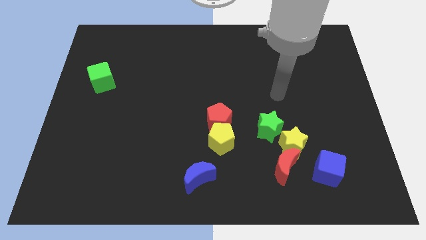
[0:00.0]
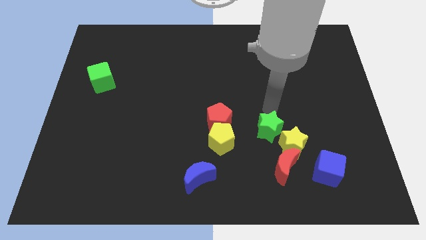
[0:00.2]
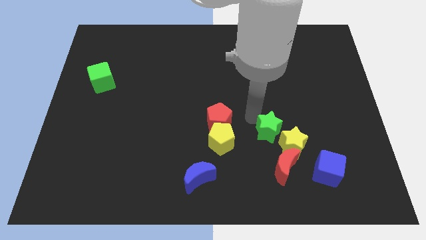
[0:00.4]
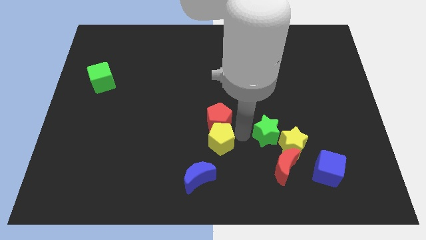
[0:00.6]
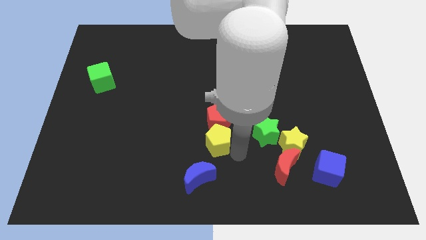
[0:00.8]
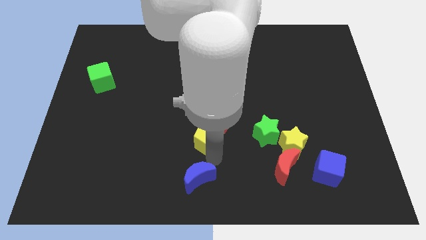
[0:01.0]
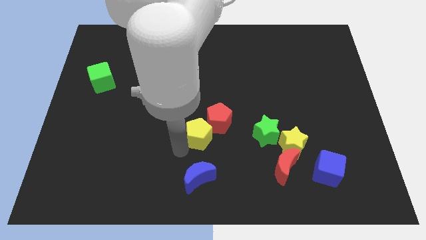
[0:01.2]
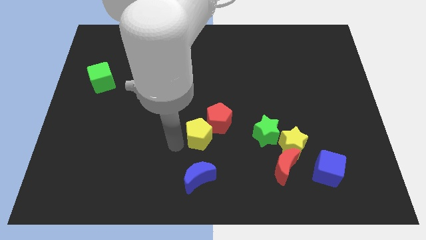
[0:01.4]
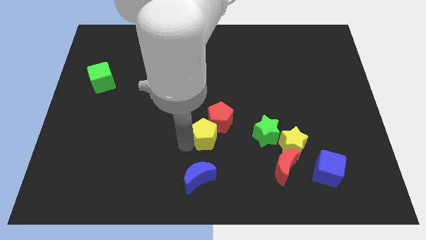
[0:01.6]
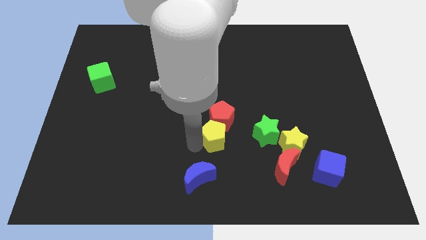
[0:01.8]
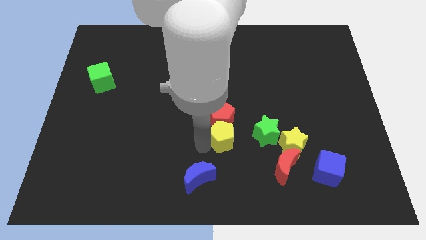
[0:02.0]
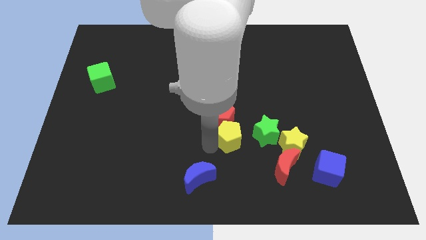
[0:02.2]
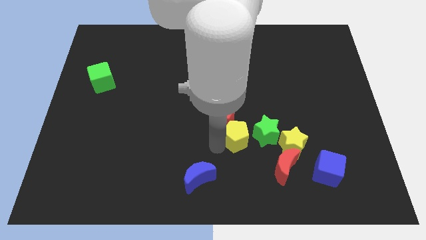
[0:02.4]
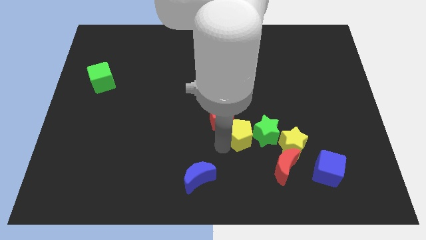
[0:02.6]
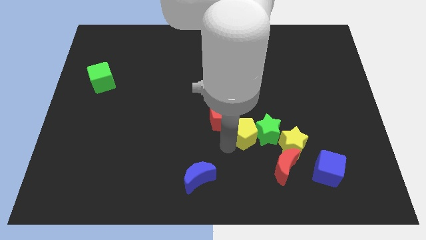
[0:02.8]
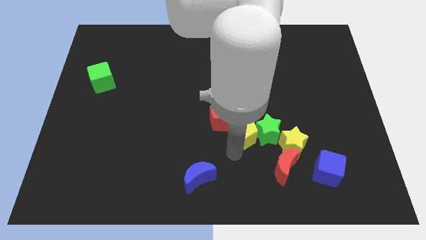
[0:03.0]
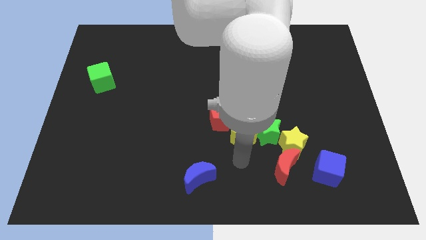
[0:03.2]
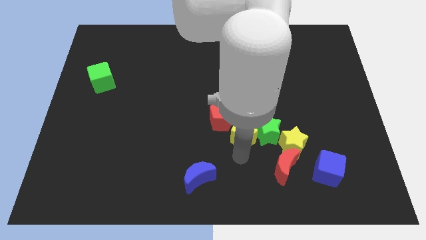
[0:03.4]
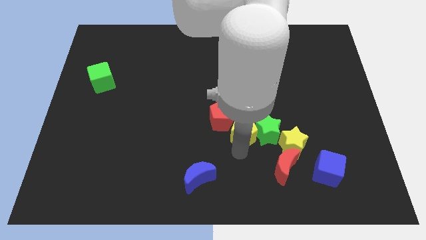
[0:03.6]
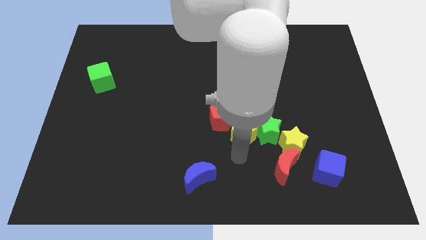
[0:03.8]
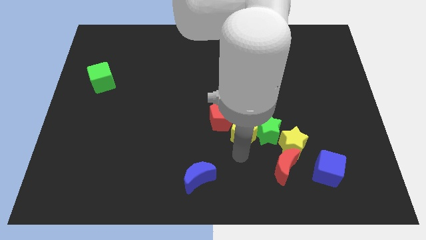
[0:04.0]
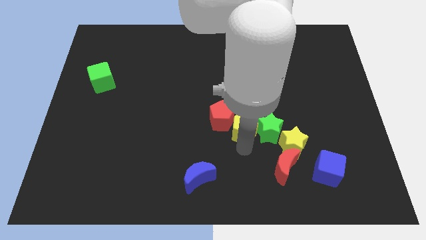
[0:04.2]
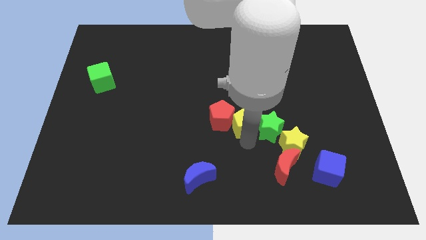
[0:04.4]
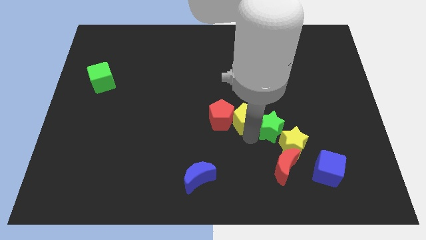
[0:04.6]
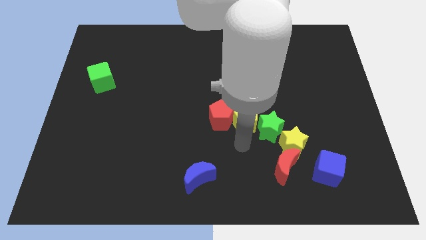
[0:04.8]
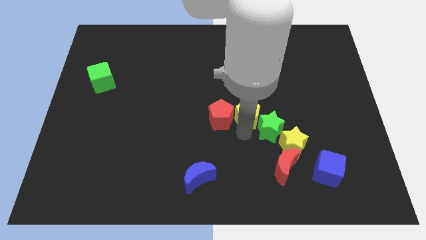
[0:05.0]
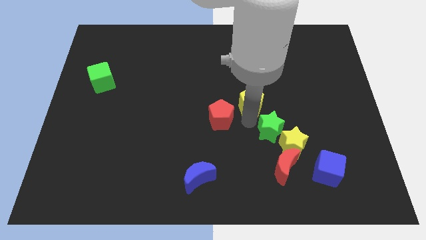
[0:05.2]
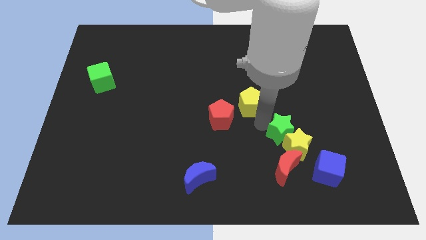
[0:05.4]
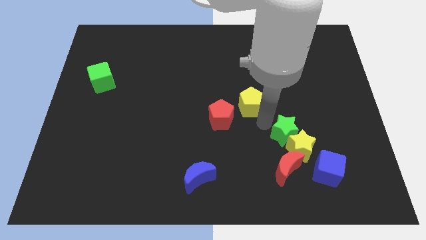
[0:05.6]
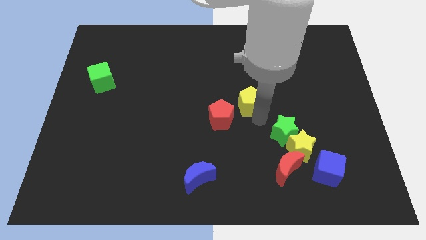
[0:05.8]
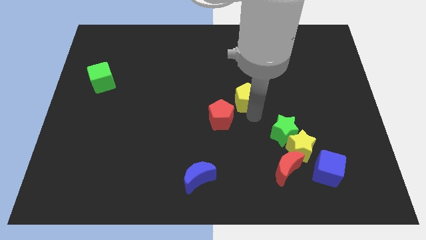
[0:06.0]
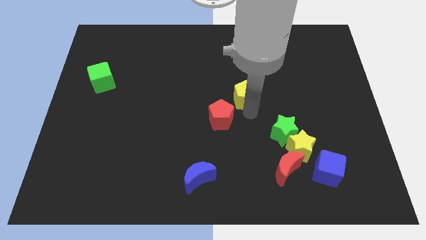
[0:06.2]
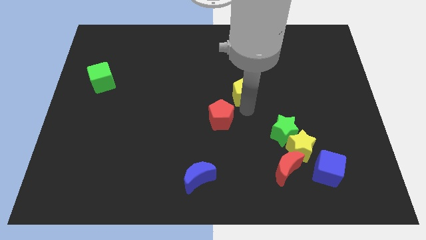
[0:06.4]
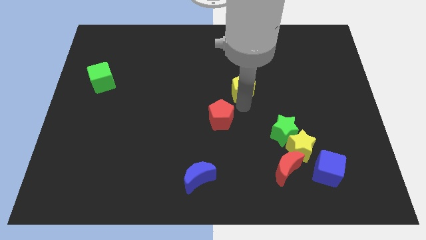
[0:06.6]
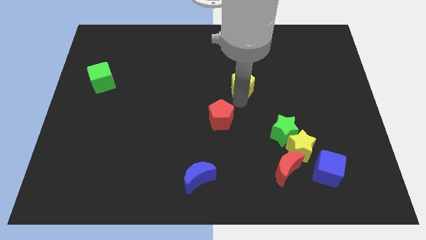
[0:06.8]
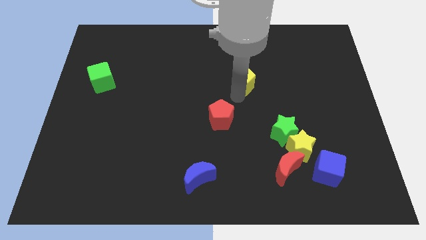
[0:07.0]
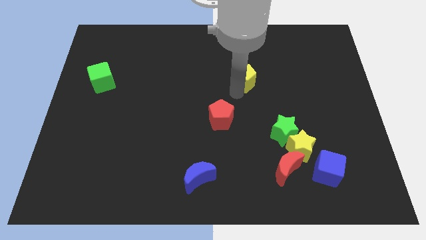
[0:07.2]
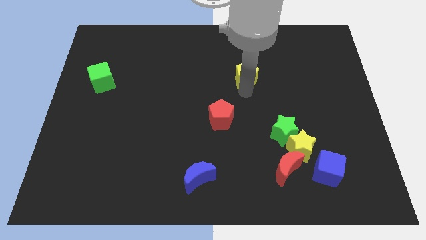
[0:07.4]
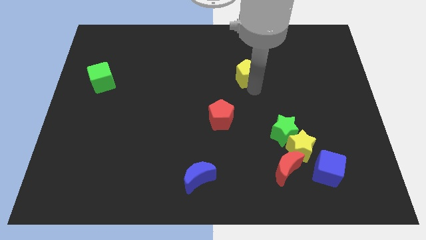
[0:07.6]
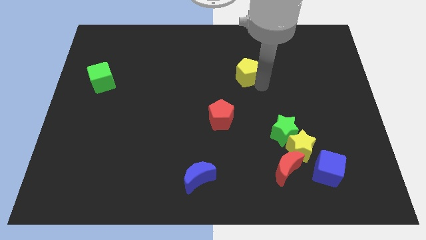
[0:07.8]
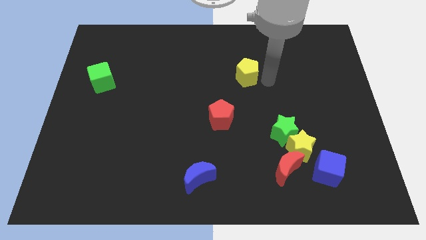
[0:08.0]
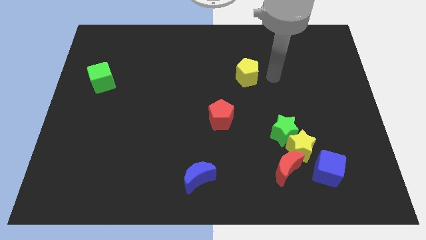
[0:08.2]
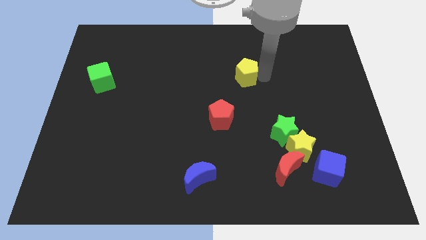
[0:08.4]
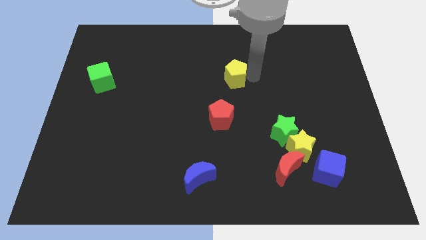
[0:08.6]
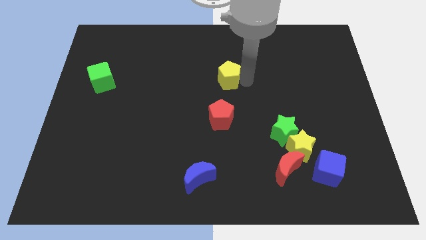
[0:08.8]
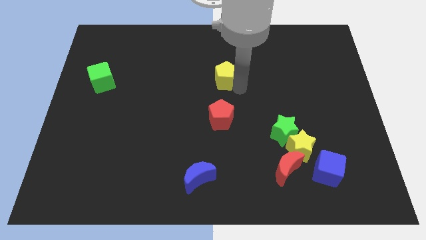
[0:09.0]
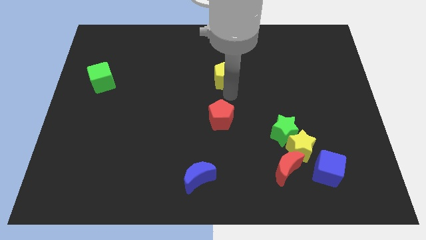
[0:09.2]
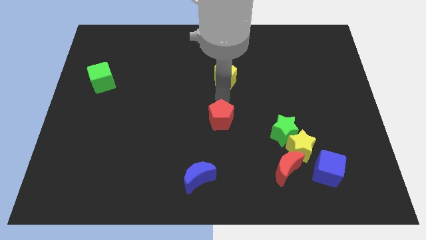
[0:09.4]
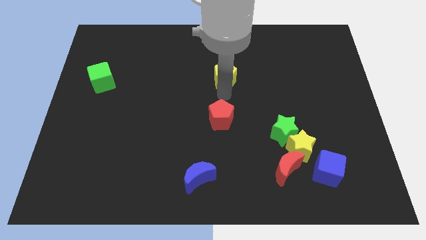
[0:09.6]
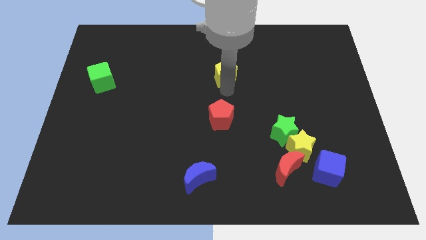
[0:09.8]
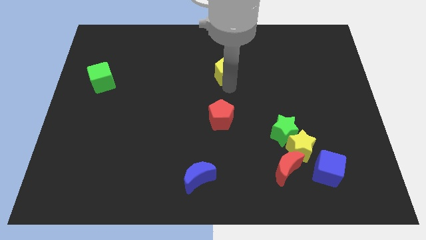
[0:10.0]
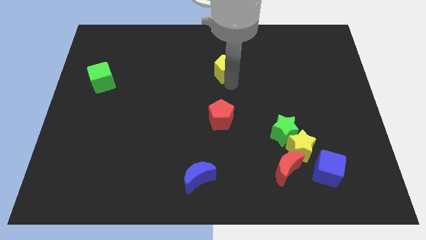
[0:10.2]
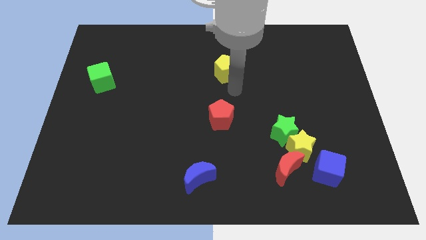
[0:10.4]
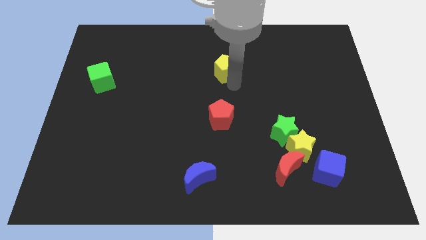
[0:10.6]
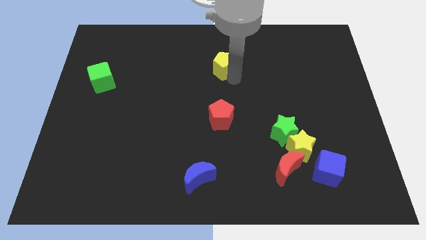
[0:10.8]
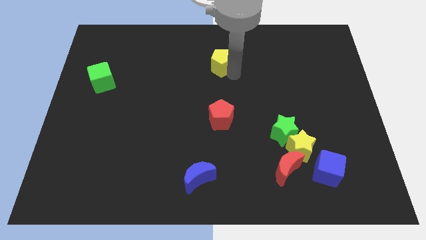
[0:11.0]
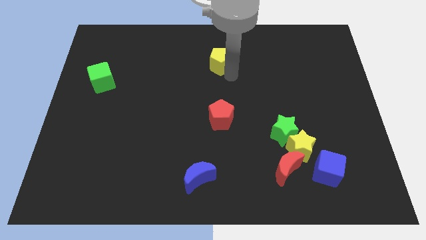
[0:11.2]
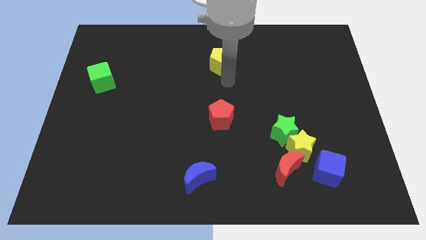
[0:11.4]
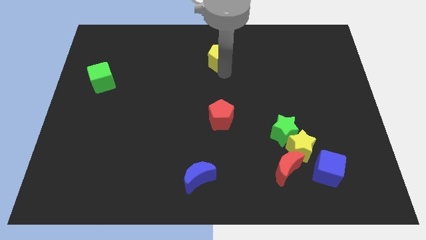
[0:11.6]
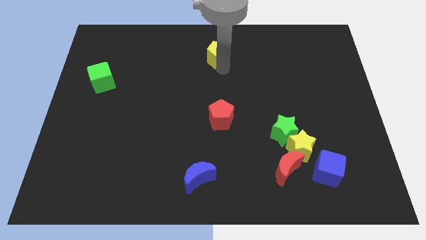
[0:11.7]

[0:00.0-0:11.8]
put the yellow pentagon to the towards your base

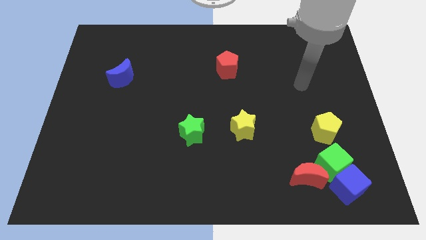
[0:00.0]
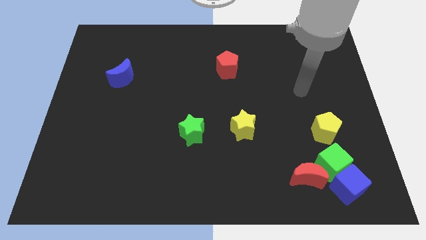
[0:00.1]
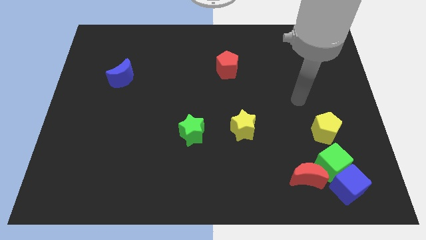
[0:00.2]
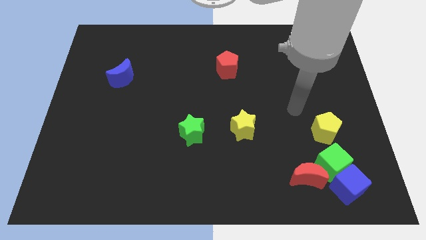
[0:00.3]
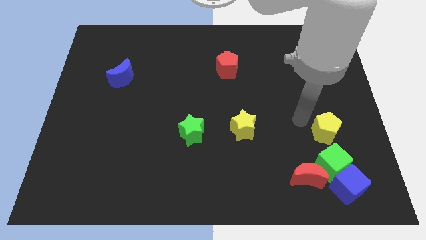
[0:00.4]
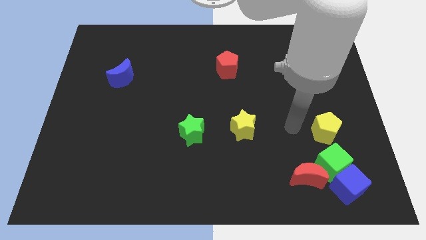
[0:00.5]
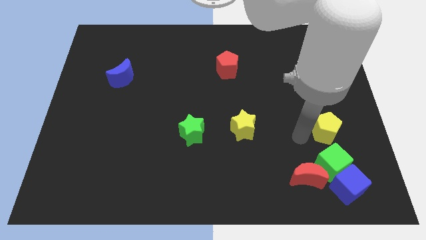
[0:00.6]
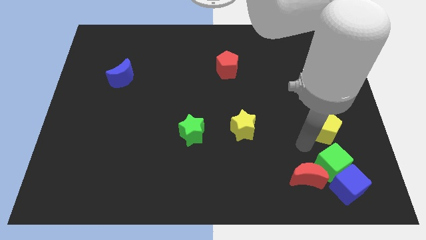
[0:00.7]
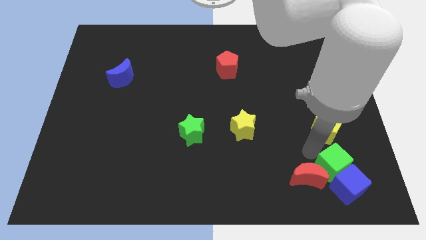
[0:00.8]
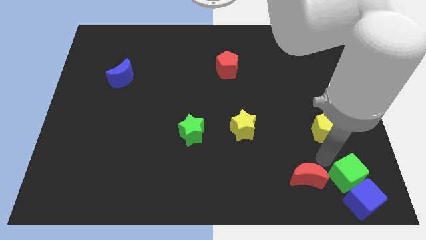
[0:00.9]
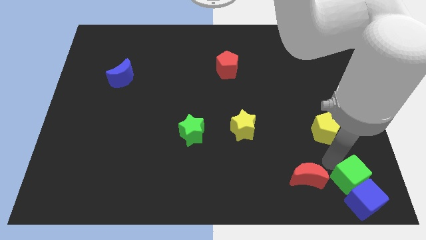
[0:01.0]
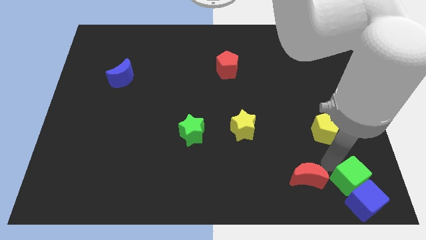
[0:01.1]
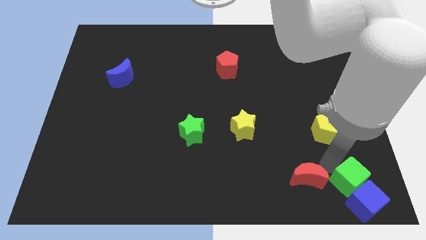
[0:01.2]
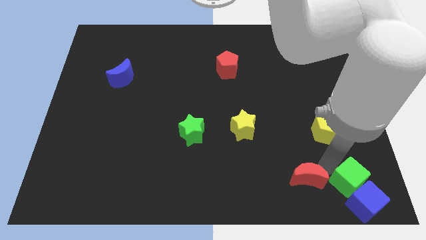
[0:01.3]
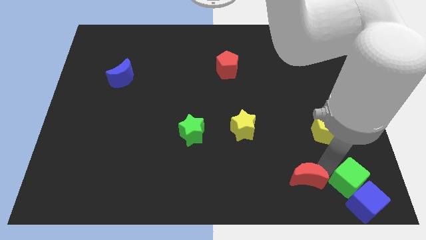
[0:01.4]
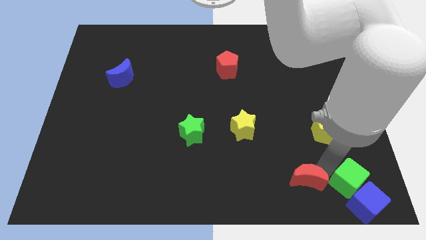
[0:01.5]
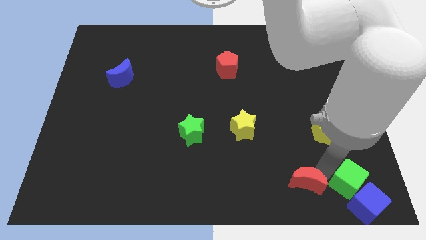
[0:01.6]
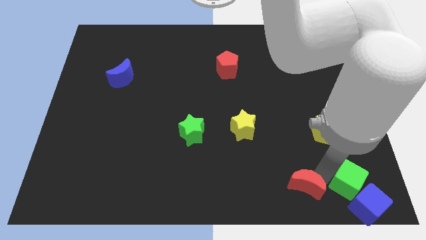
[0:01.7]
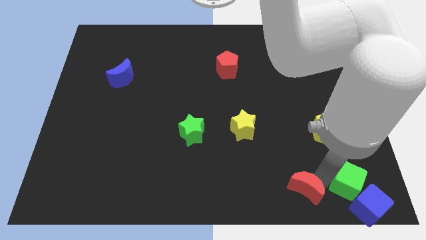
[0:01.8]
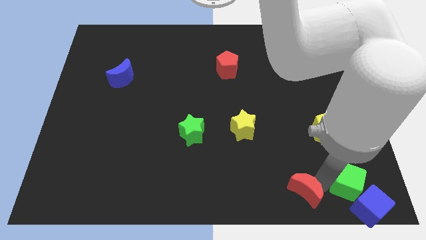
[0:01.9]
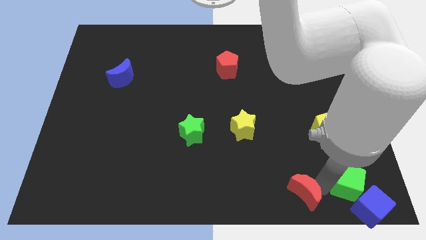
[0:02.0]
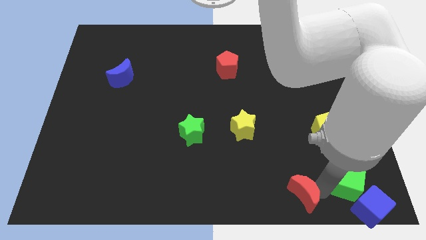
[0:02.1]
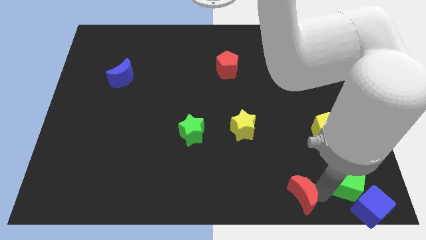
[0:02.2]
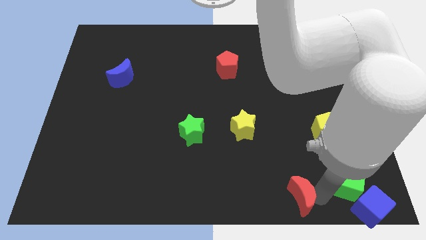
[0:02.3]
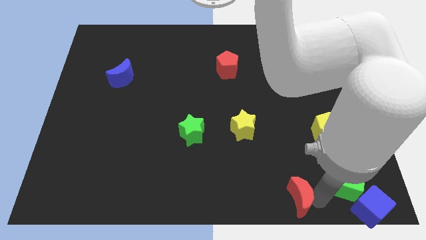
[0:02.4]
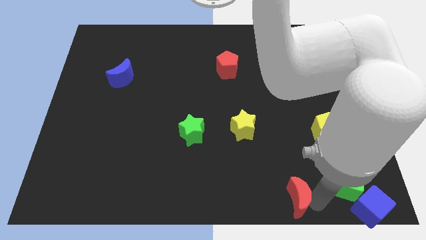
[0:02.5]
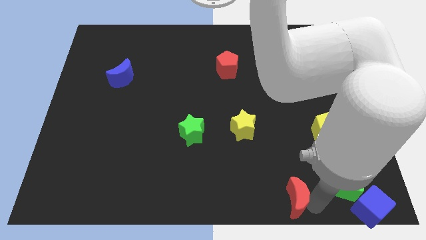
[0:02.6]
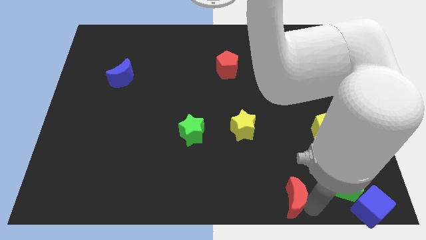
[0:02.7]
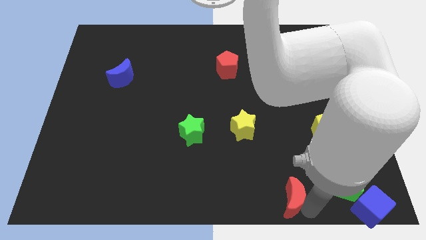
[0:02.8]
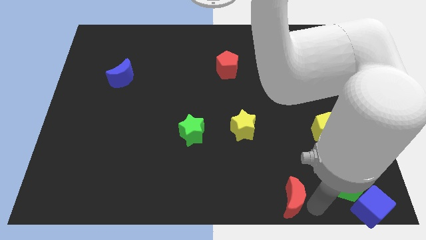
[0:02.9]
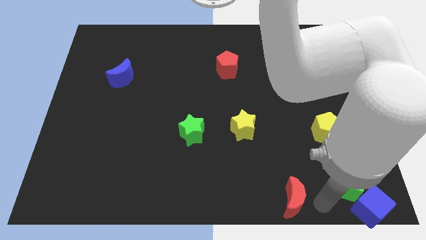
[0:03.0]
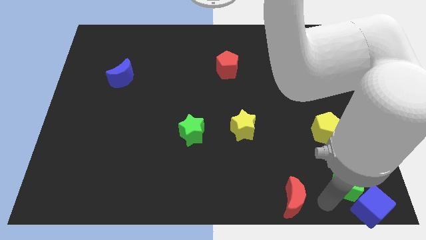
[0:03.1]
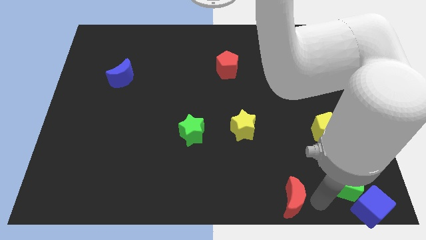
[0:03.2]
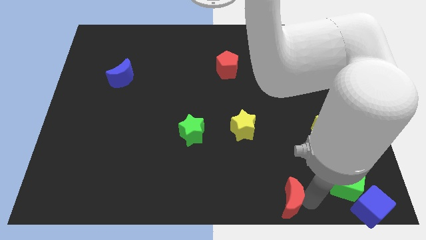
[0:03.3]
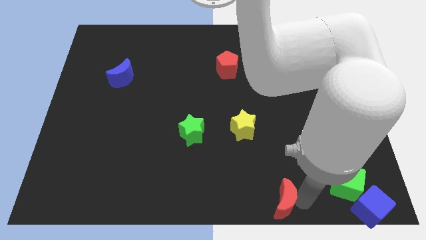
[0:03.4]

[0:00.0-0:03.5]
move the red moon to the bottom side
